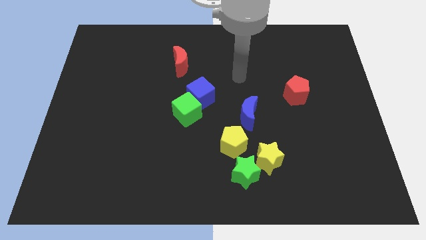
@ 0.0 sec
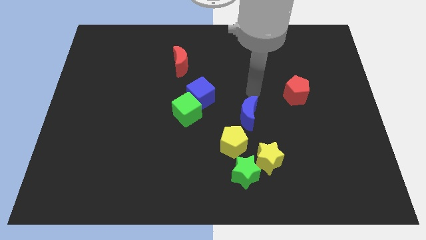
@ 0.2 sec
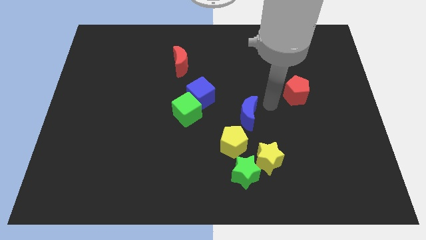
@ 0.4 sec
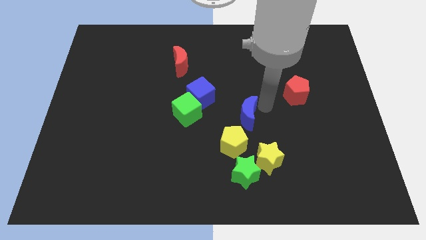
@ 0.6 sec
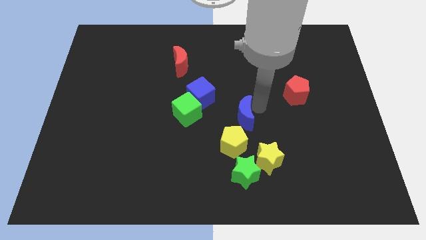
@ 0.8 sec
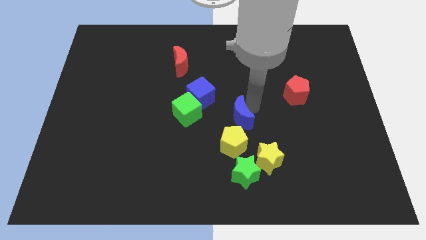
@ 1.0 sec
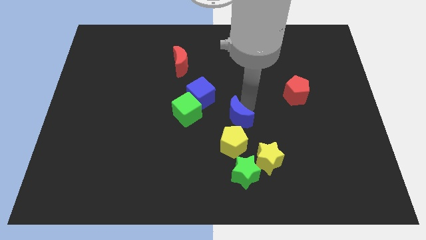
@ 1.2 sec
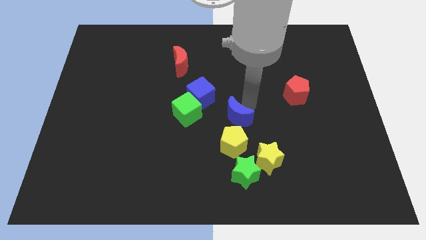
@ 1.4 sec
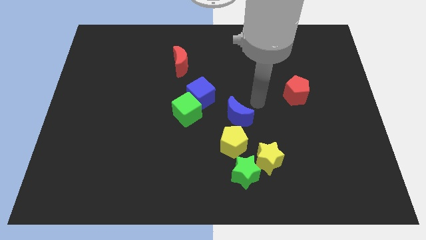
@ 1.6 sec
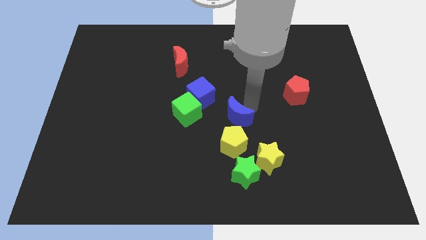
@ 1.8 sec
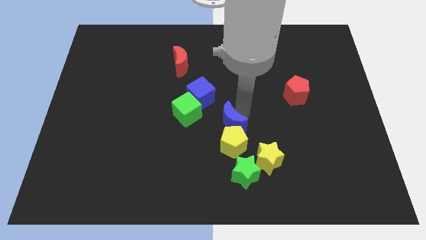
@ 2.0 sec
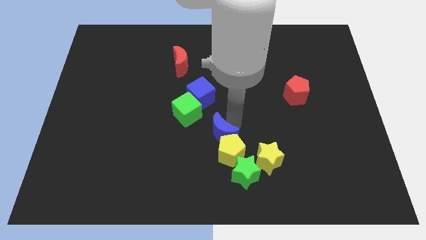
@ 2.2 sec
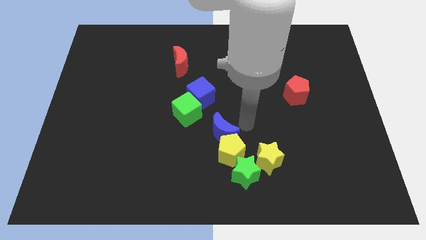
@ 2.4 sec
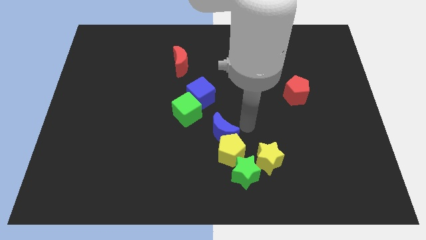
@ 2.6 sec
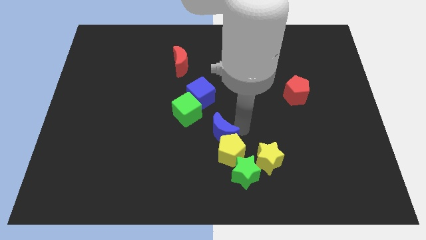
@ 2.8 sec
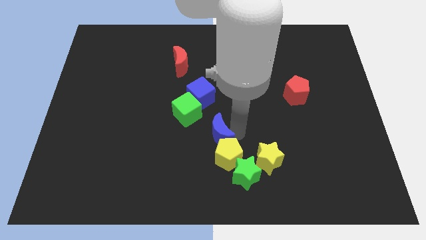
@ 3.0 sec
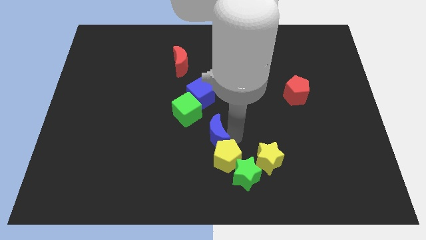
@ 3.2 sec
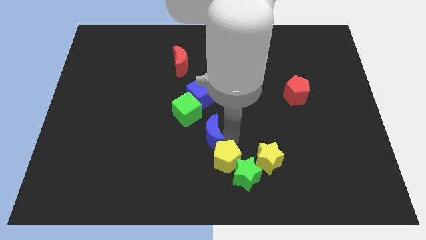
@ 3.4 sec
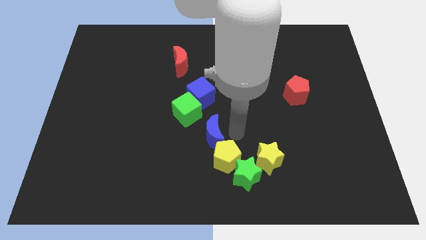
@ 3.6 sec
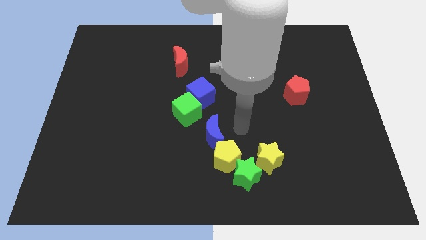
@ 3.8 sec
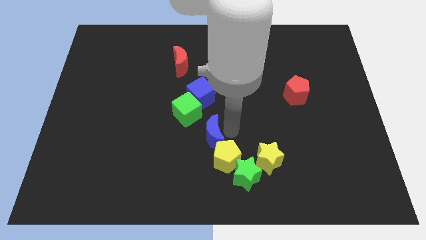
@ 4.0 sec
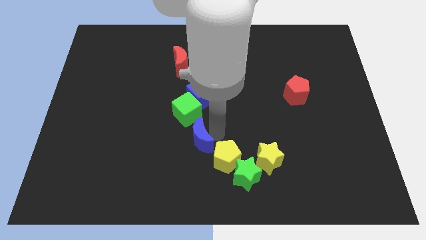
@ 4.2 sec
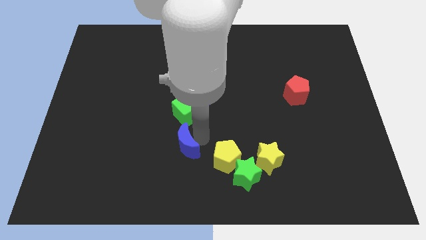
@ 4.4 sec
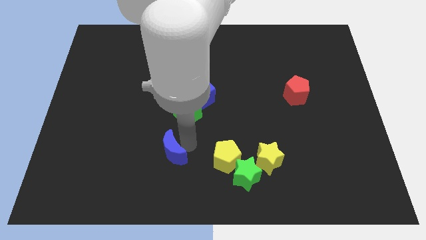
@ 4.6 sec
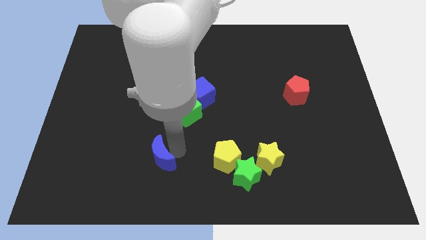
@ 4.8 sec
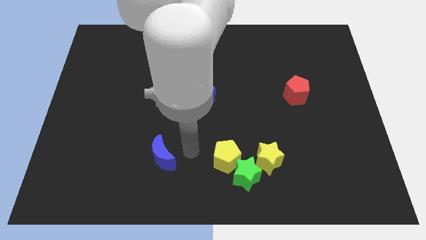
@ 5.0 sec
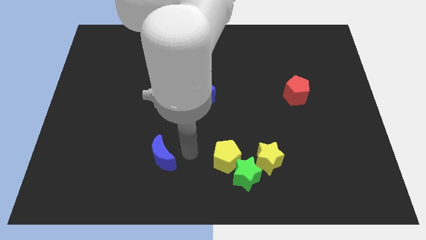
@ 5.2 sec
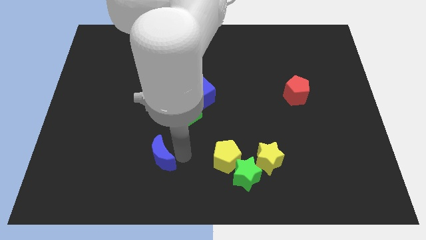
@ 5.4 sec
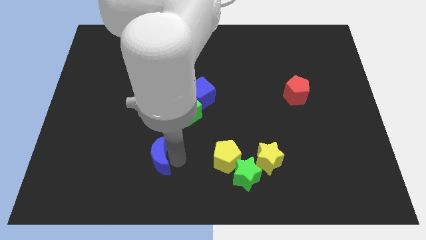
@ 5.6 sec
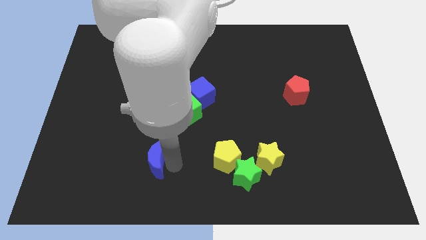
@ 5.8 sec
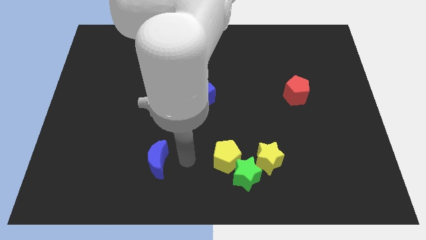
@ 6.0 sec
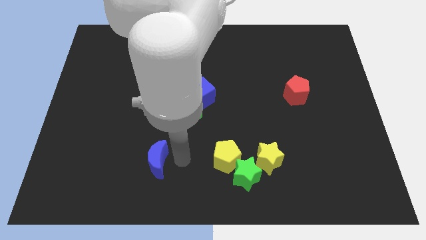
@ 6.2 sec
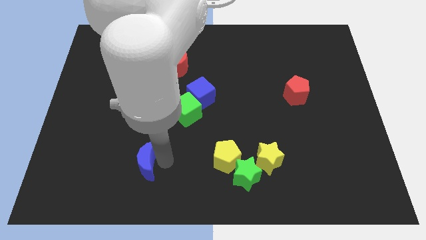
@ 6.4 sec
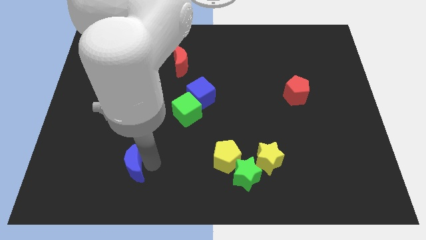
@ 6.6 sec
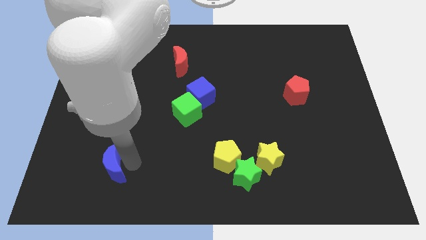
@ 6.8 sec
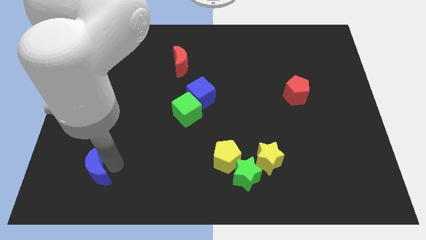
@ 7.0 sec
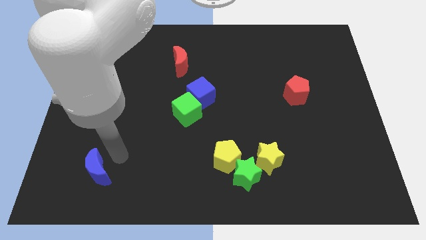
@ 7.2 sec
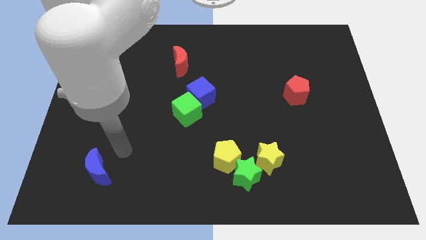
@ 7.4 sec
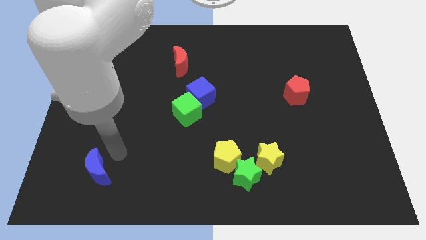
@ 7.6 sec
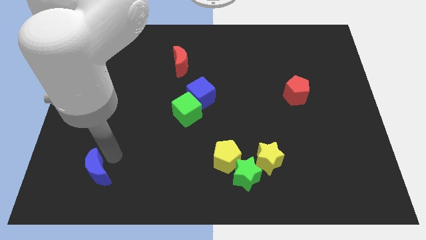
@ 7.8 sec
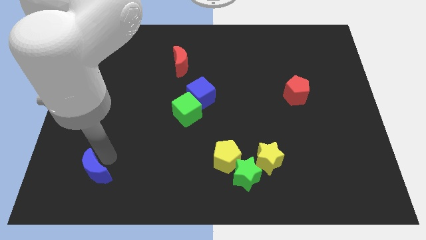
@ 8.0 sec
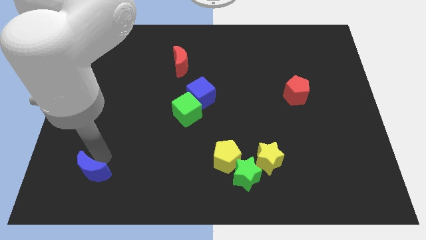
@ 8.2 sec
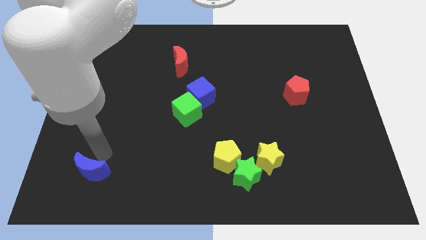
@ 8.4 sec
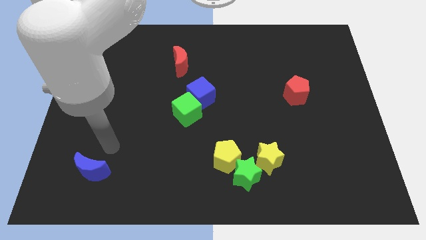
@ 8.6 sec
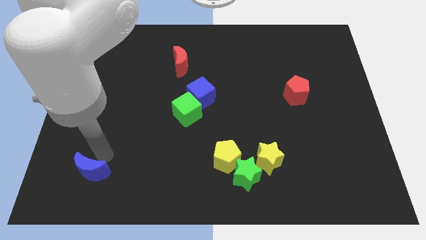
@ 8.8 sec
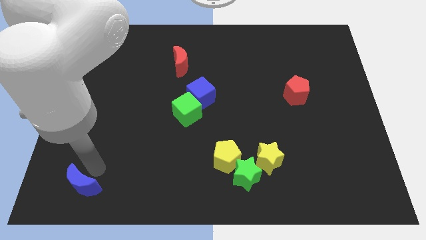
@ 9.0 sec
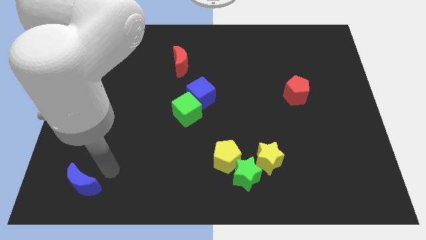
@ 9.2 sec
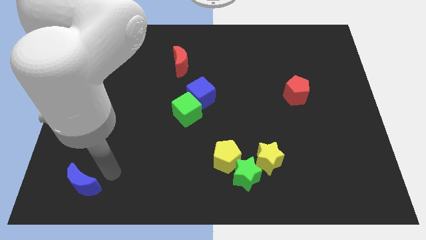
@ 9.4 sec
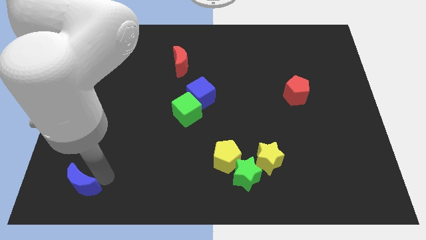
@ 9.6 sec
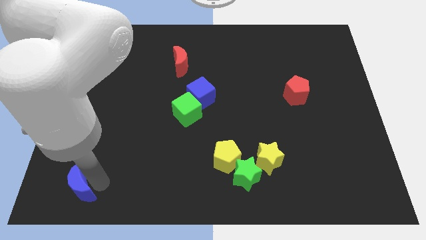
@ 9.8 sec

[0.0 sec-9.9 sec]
move the blue moon to the bottom left
